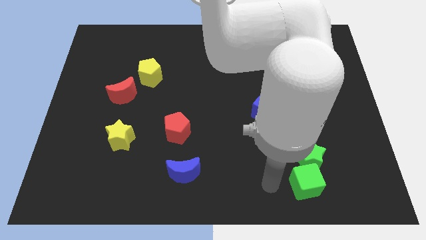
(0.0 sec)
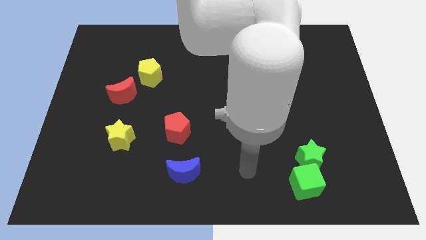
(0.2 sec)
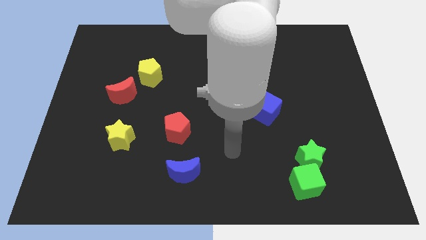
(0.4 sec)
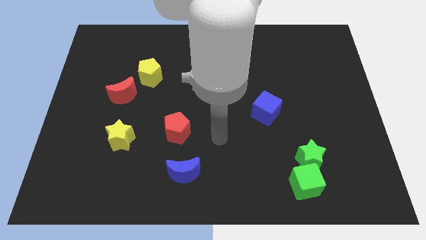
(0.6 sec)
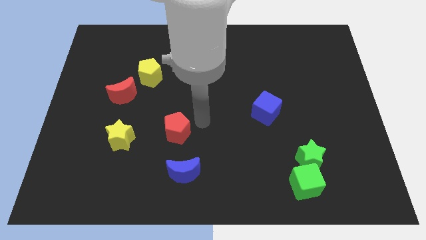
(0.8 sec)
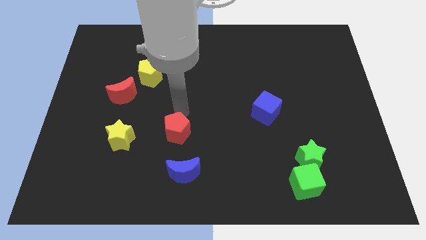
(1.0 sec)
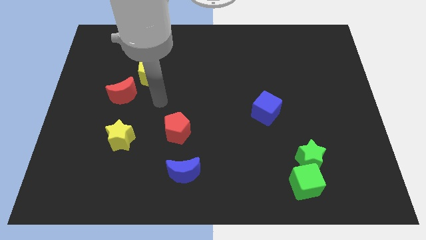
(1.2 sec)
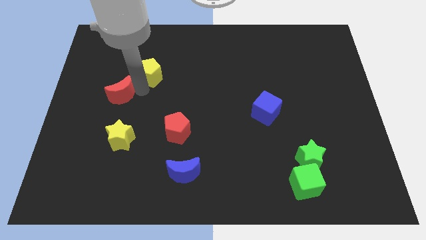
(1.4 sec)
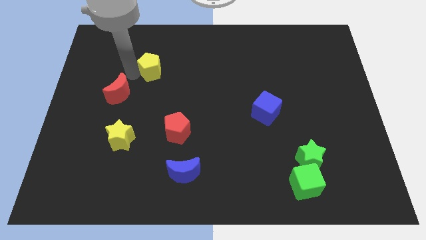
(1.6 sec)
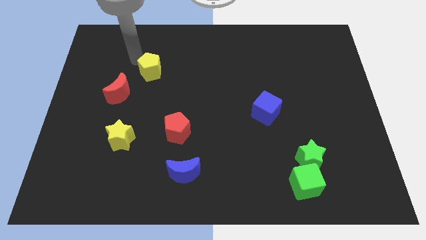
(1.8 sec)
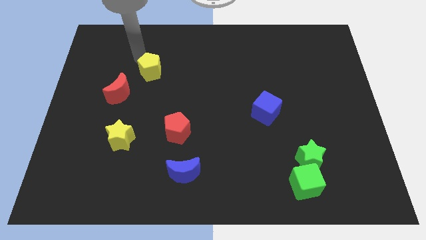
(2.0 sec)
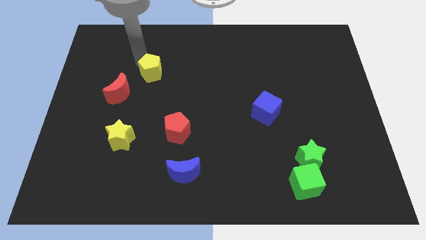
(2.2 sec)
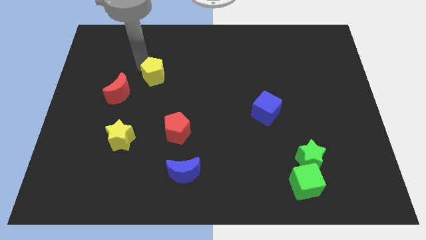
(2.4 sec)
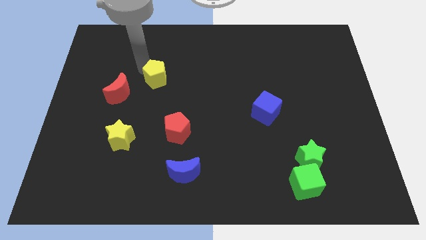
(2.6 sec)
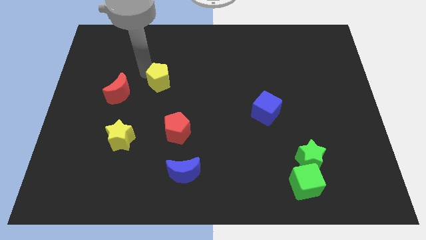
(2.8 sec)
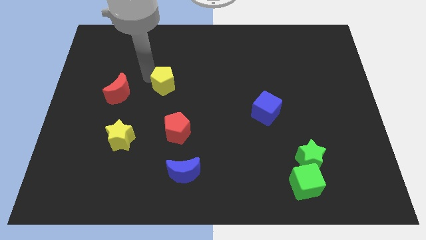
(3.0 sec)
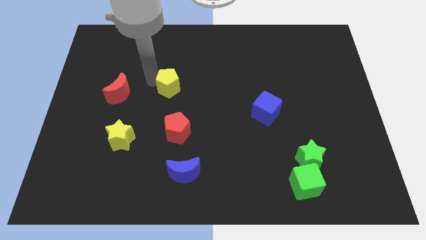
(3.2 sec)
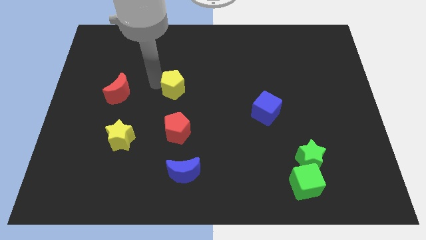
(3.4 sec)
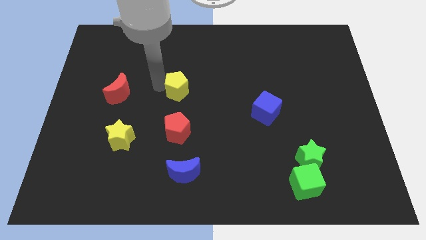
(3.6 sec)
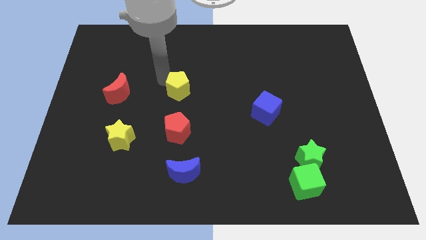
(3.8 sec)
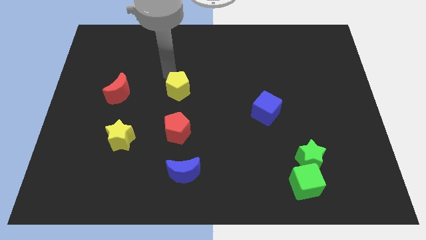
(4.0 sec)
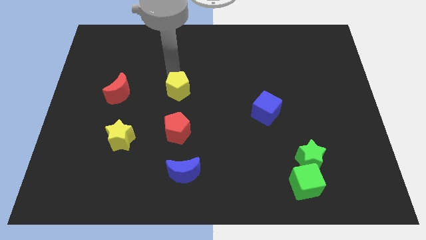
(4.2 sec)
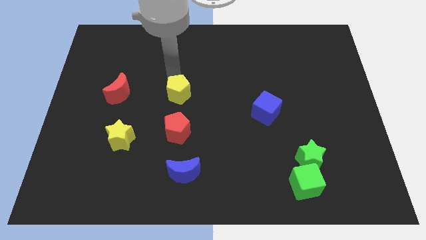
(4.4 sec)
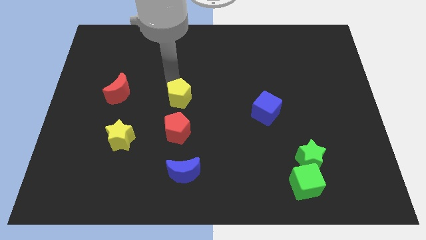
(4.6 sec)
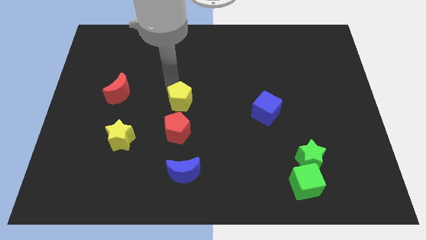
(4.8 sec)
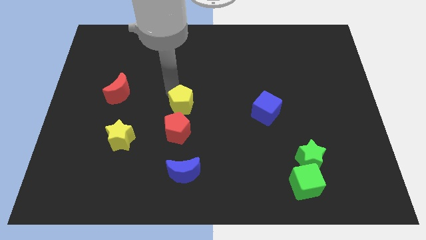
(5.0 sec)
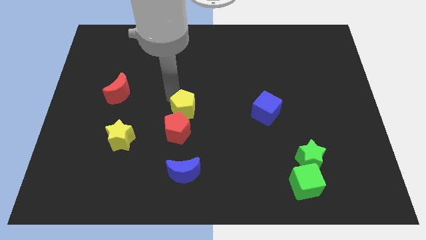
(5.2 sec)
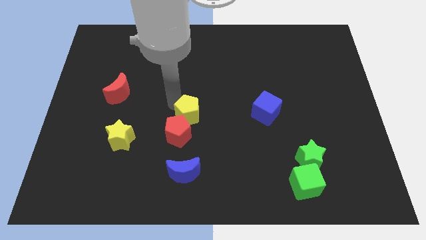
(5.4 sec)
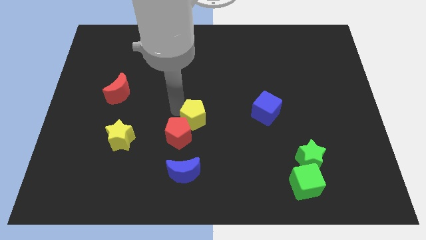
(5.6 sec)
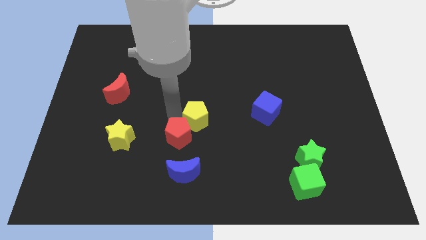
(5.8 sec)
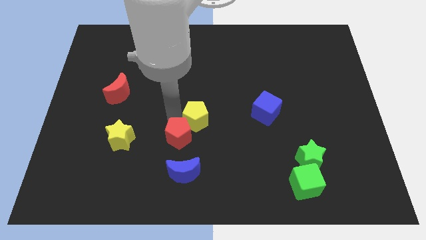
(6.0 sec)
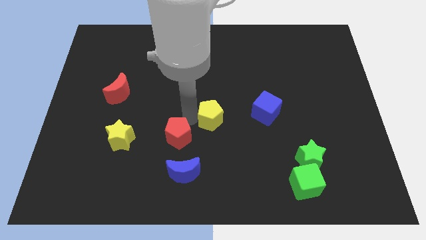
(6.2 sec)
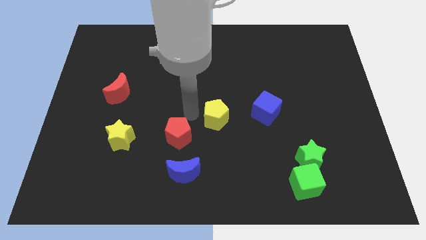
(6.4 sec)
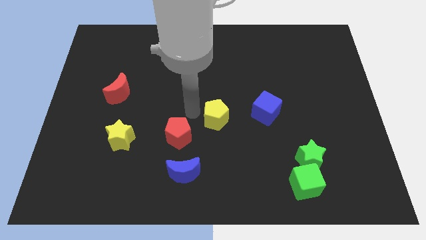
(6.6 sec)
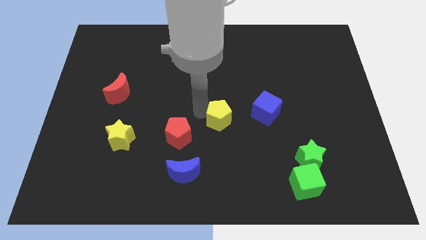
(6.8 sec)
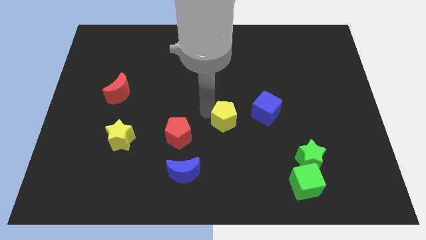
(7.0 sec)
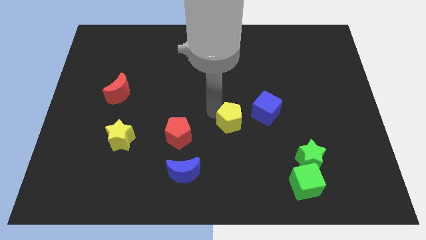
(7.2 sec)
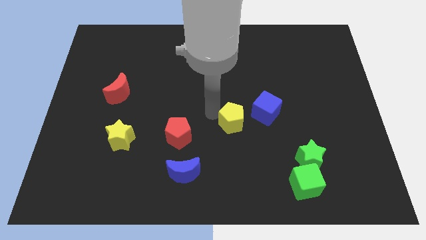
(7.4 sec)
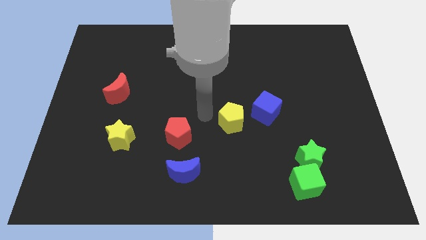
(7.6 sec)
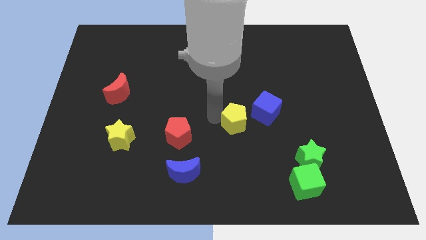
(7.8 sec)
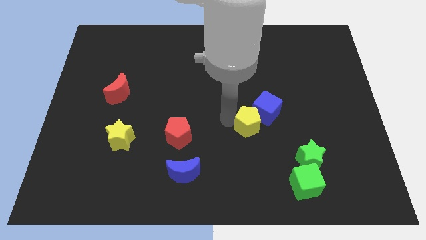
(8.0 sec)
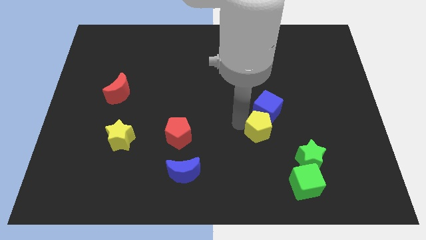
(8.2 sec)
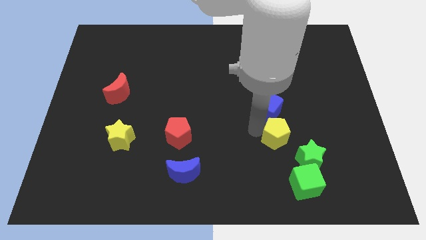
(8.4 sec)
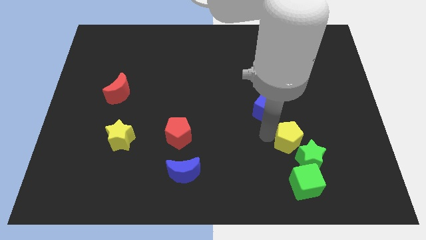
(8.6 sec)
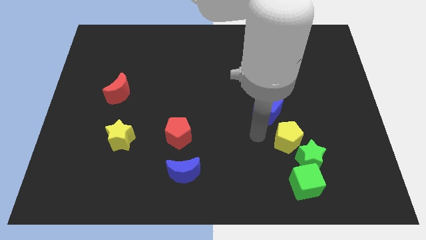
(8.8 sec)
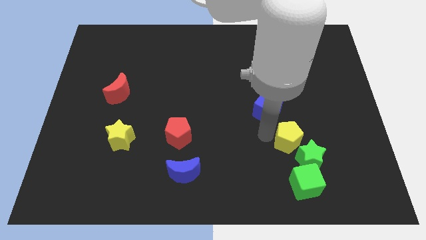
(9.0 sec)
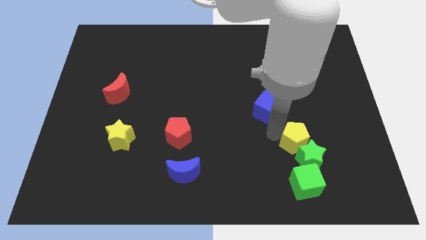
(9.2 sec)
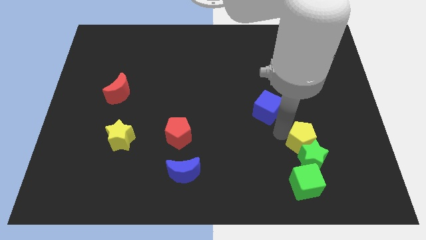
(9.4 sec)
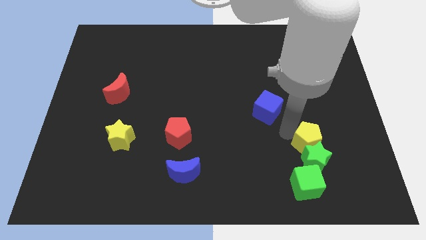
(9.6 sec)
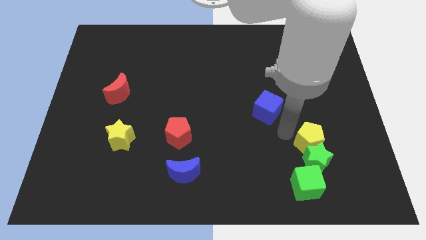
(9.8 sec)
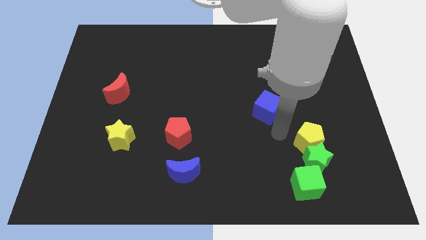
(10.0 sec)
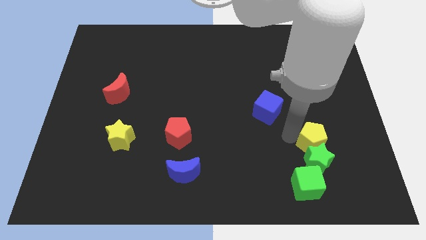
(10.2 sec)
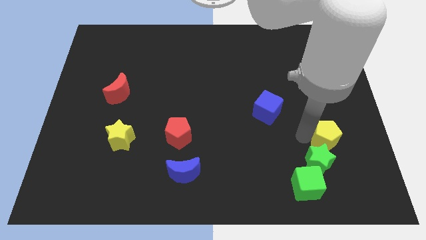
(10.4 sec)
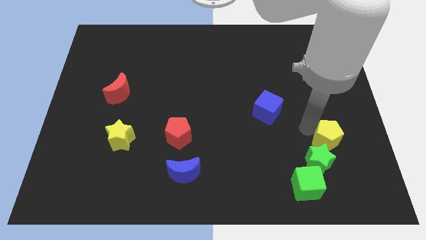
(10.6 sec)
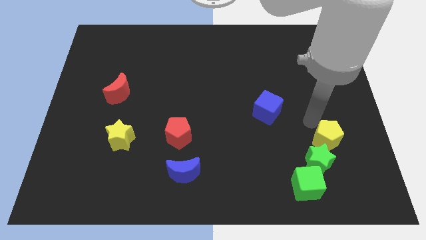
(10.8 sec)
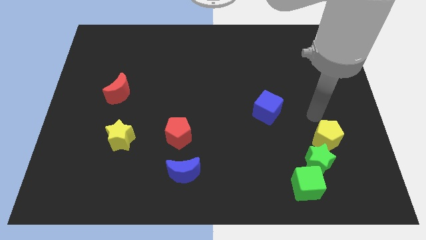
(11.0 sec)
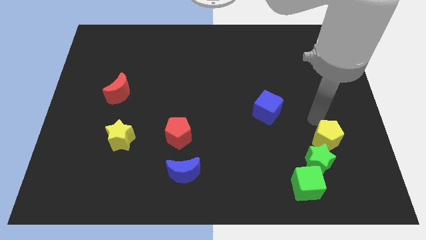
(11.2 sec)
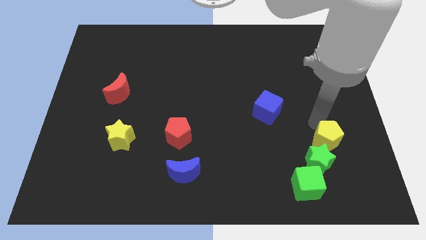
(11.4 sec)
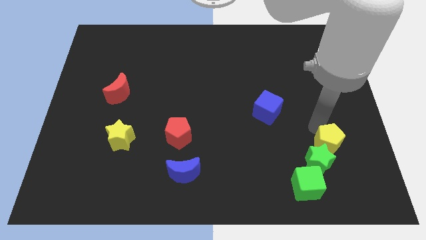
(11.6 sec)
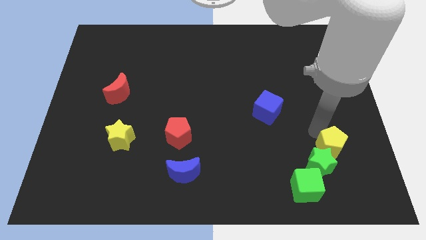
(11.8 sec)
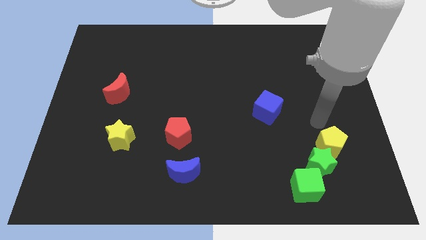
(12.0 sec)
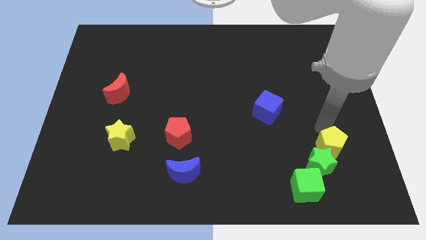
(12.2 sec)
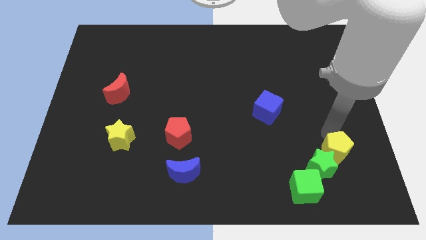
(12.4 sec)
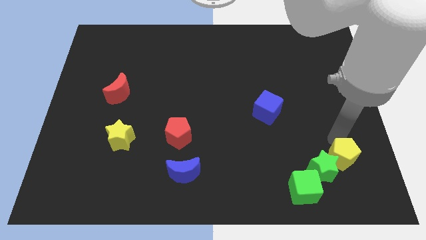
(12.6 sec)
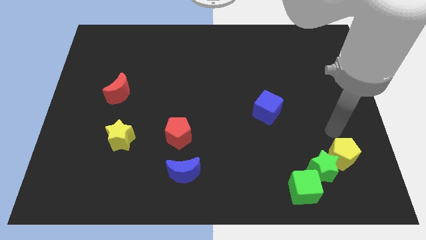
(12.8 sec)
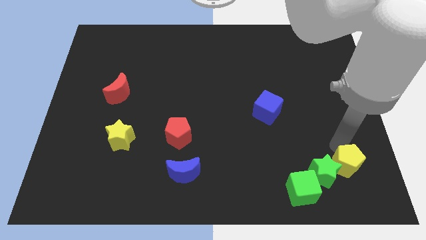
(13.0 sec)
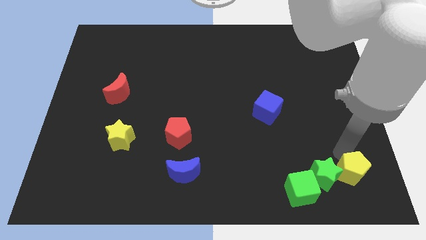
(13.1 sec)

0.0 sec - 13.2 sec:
slide the yellow pentagon to the bottom right of the green star
